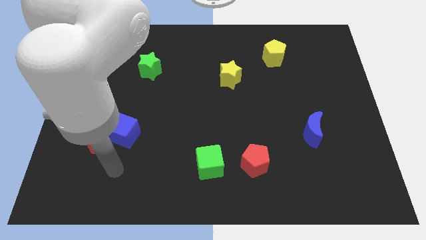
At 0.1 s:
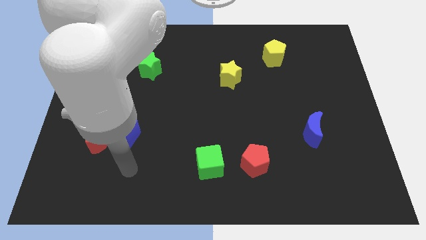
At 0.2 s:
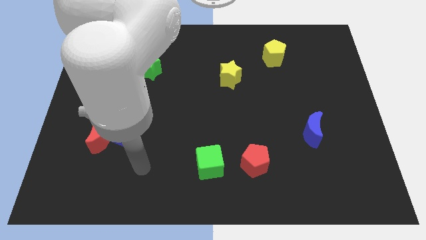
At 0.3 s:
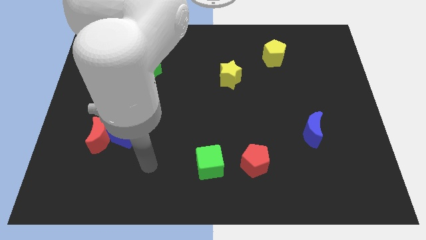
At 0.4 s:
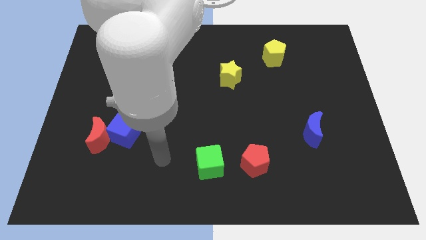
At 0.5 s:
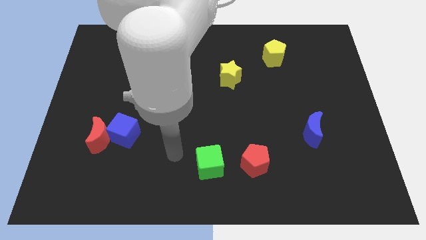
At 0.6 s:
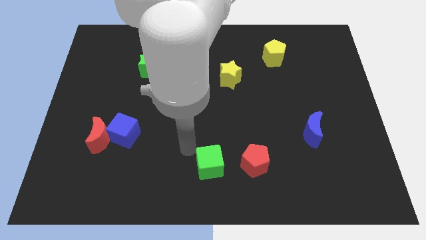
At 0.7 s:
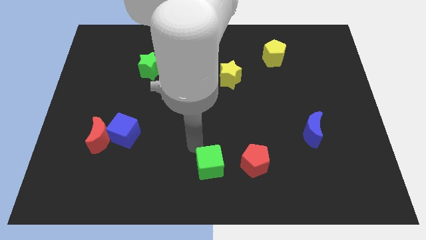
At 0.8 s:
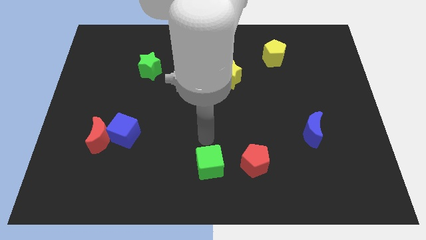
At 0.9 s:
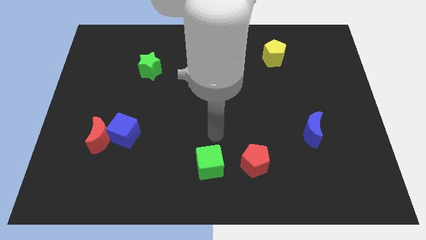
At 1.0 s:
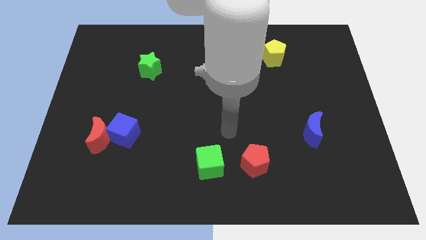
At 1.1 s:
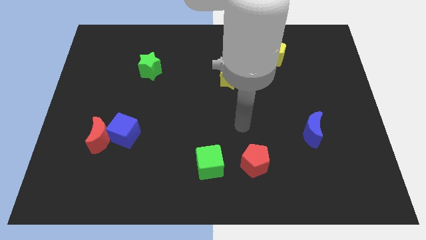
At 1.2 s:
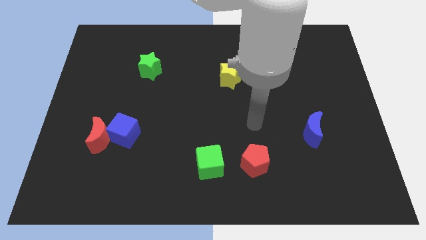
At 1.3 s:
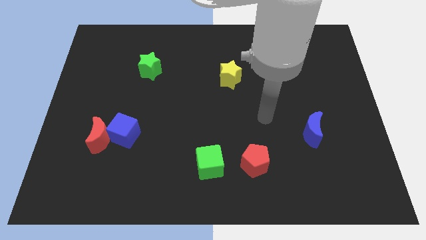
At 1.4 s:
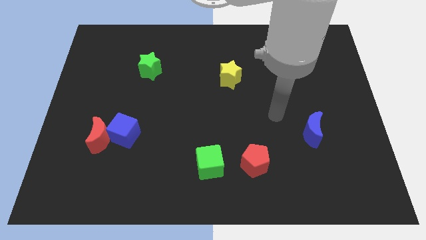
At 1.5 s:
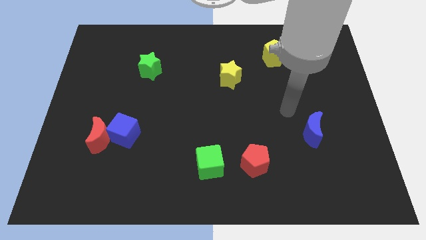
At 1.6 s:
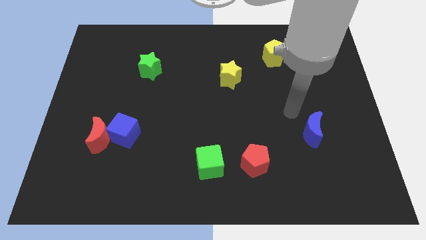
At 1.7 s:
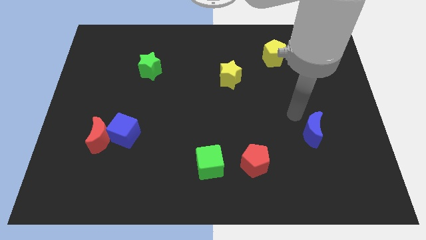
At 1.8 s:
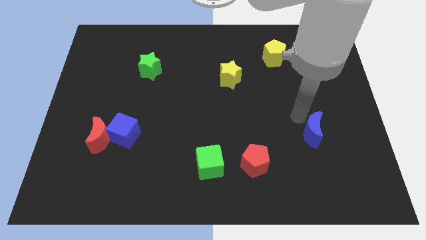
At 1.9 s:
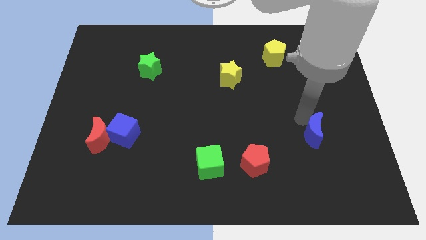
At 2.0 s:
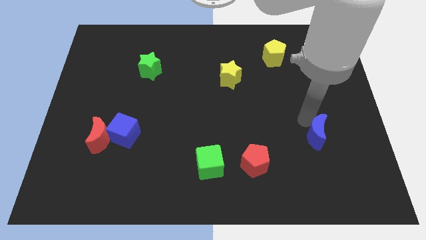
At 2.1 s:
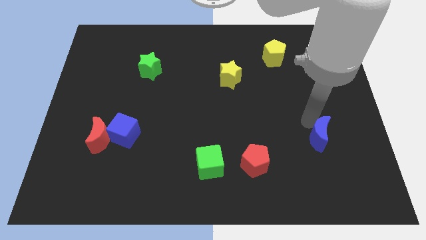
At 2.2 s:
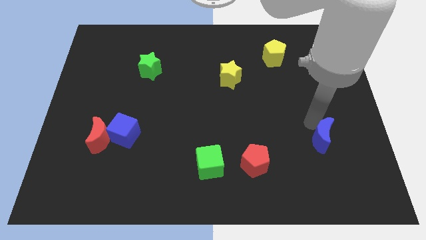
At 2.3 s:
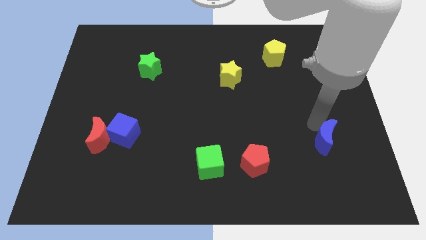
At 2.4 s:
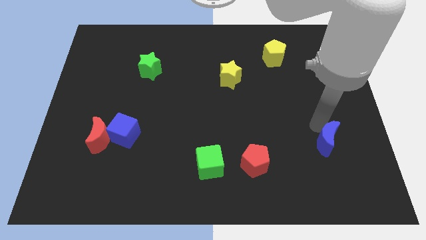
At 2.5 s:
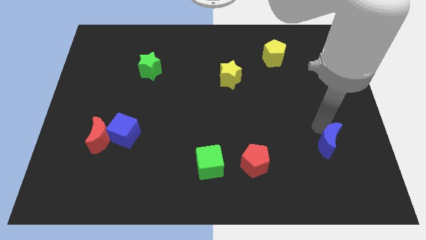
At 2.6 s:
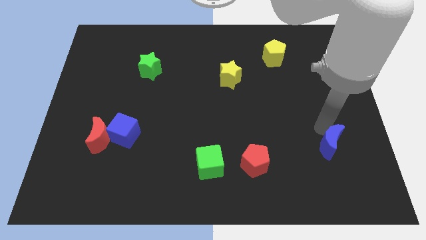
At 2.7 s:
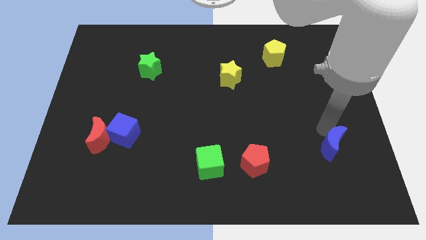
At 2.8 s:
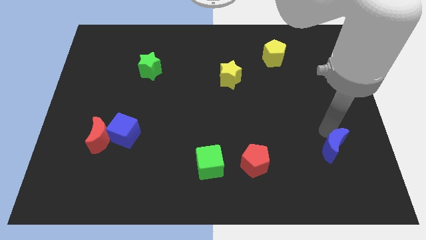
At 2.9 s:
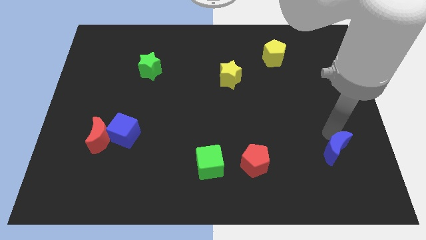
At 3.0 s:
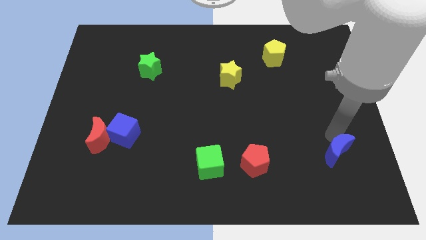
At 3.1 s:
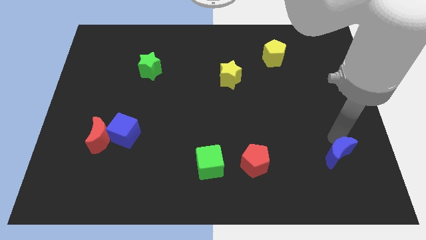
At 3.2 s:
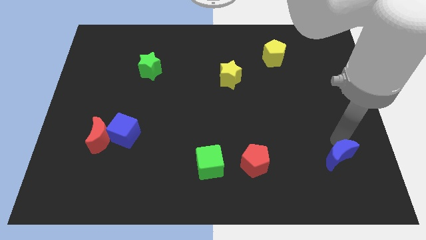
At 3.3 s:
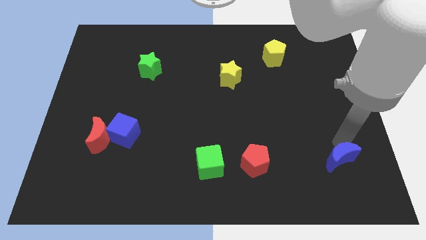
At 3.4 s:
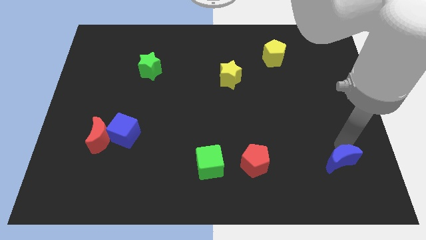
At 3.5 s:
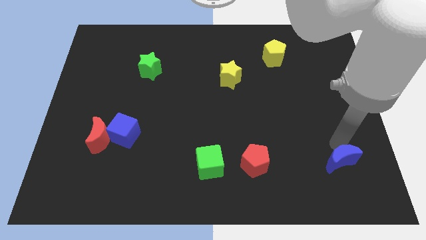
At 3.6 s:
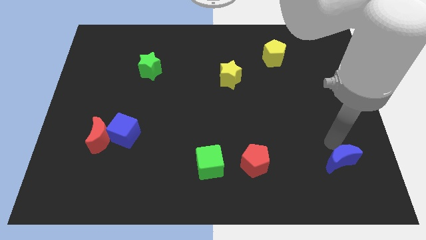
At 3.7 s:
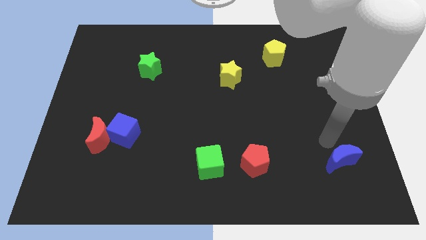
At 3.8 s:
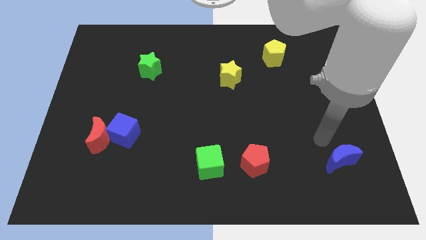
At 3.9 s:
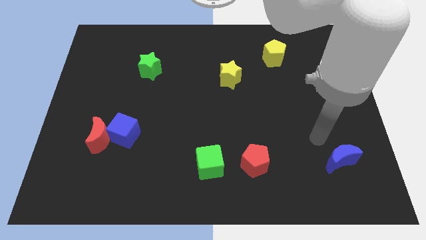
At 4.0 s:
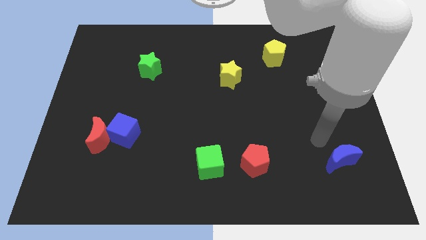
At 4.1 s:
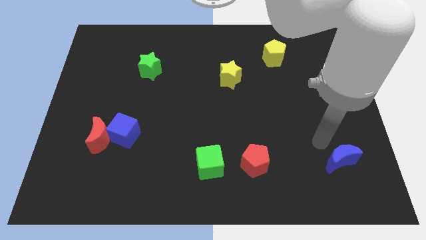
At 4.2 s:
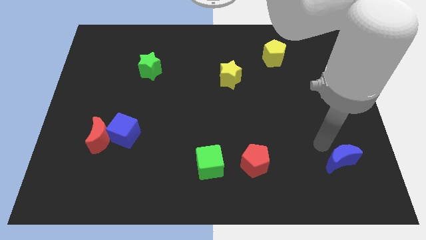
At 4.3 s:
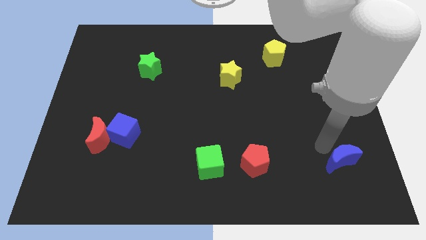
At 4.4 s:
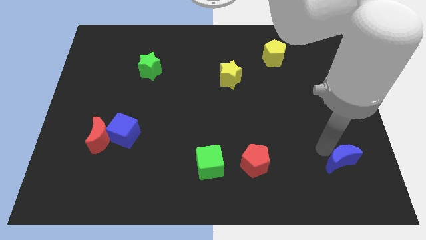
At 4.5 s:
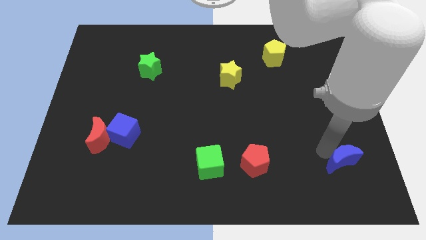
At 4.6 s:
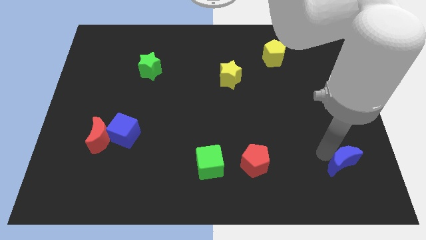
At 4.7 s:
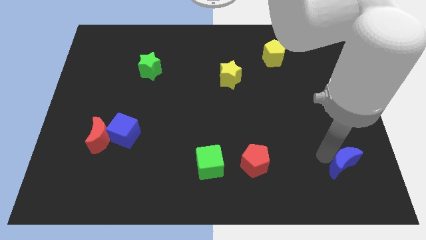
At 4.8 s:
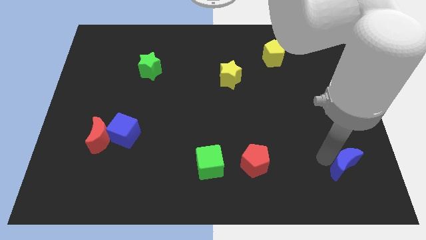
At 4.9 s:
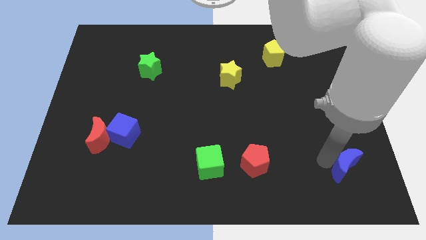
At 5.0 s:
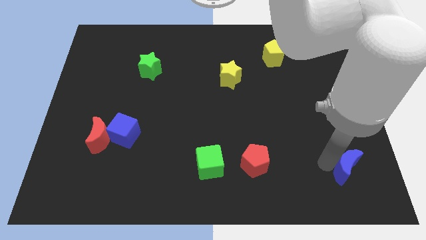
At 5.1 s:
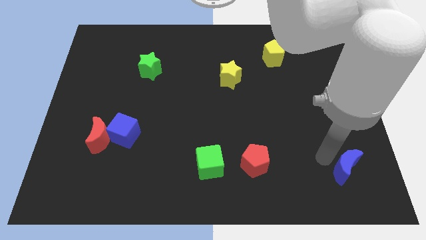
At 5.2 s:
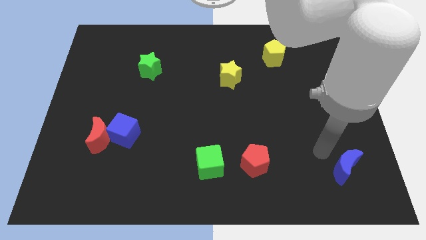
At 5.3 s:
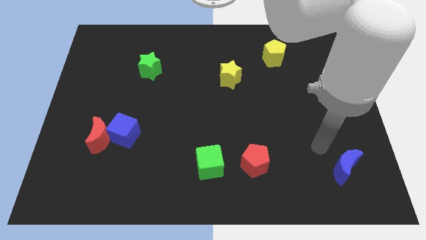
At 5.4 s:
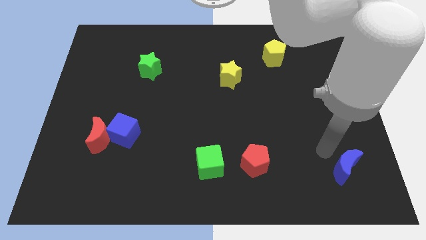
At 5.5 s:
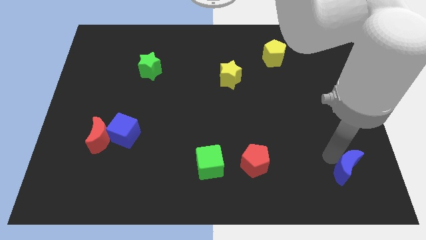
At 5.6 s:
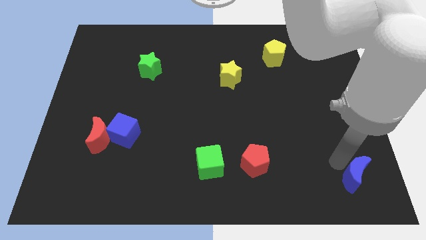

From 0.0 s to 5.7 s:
put the blue moon to the bottom right of the board

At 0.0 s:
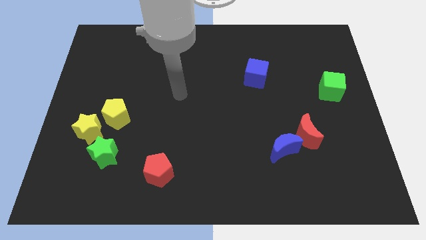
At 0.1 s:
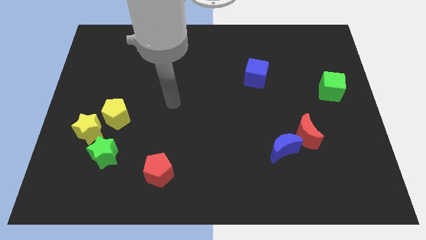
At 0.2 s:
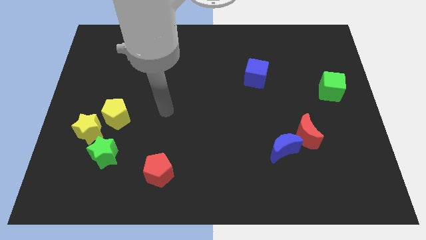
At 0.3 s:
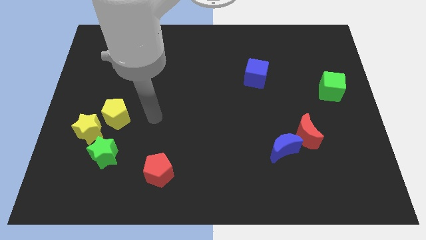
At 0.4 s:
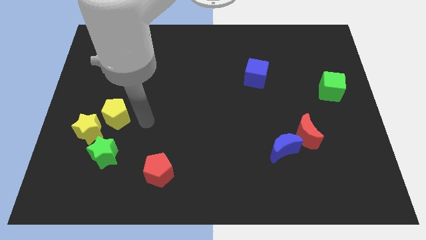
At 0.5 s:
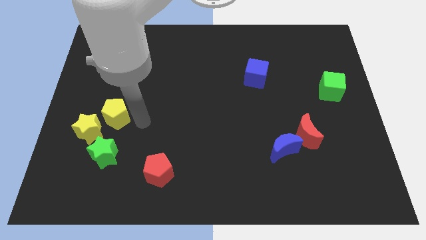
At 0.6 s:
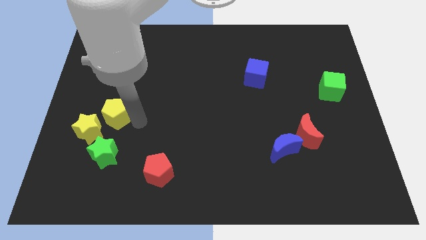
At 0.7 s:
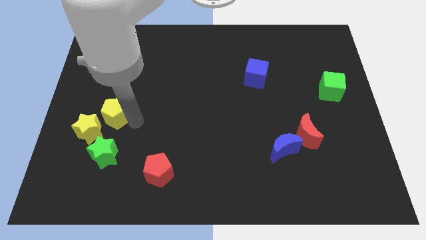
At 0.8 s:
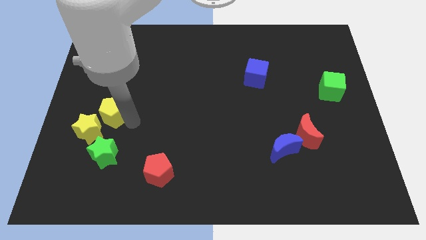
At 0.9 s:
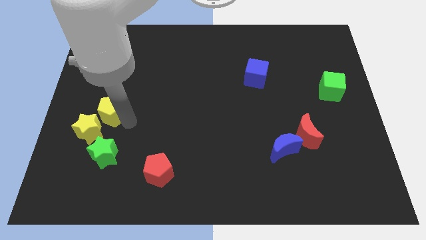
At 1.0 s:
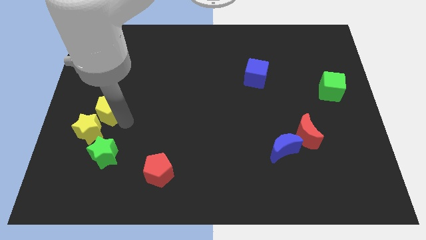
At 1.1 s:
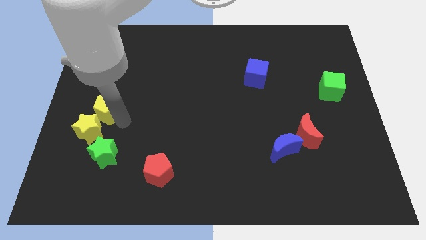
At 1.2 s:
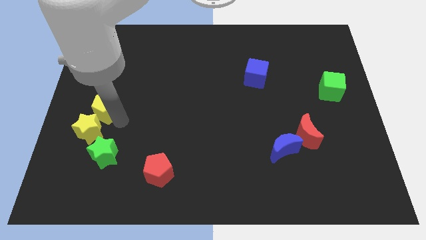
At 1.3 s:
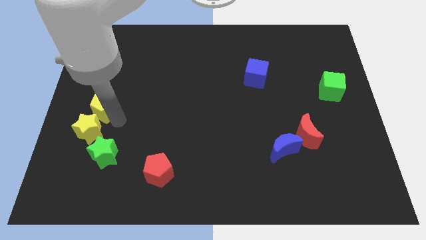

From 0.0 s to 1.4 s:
move the yellow pentagon to the center left
